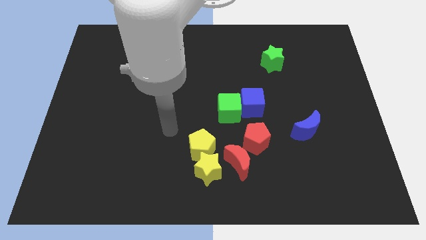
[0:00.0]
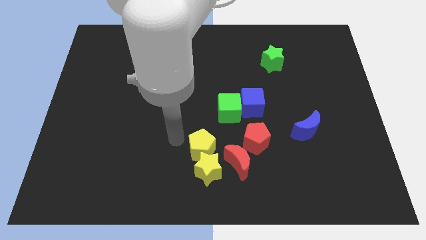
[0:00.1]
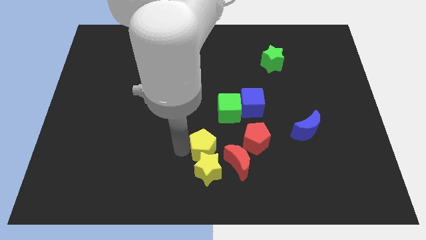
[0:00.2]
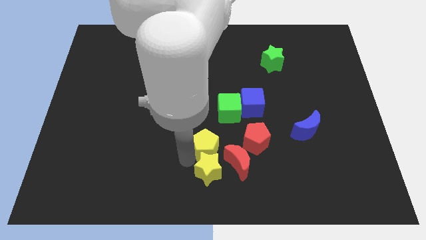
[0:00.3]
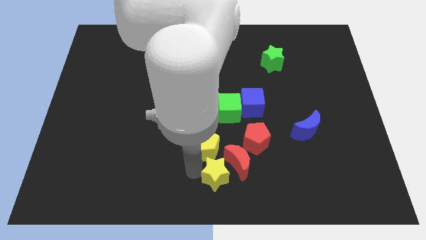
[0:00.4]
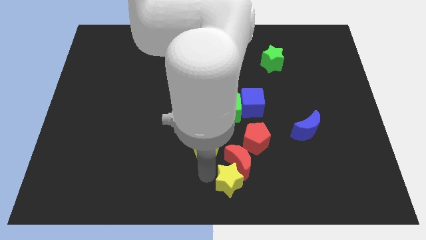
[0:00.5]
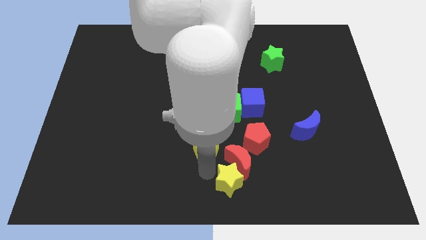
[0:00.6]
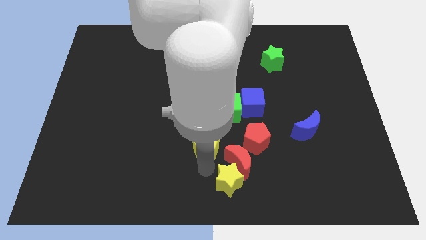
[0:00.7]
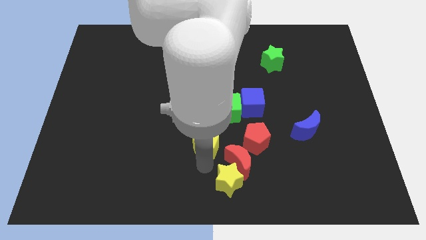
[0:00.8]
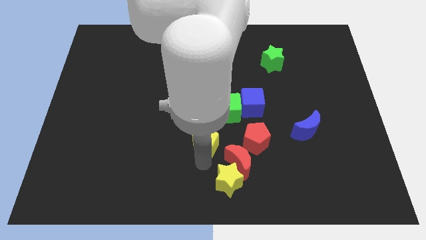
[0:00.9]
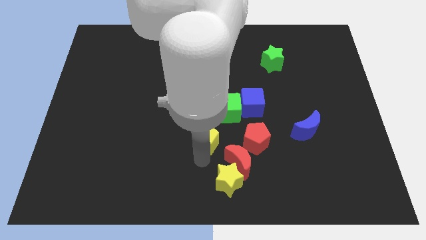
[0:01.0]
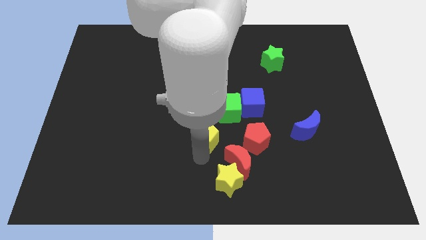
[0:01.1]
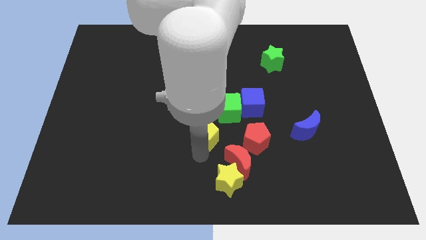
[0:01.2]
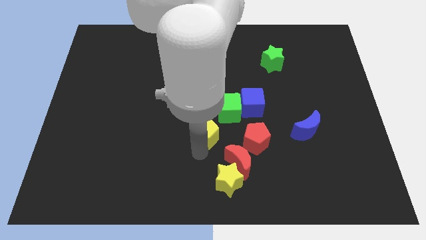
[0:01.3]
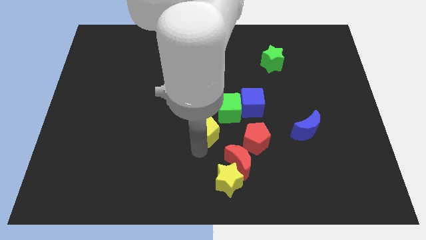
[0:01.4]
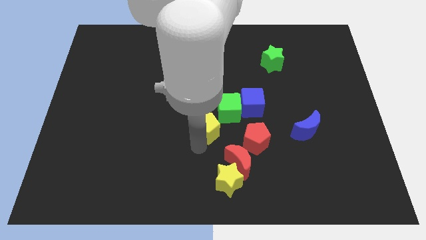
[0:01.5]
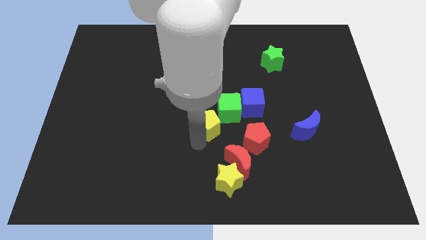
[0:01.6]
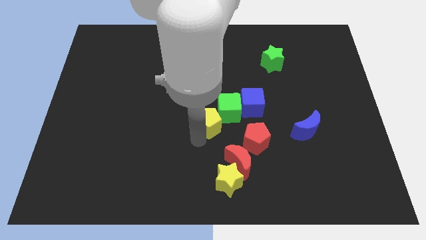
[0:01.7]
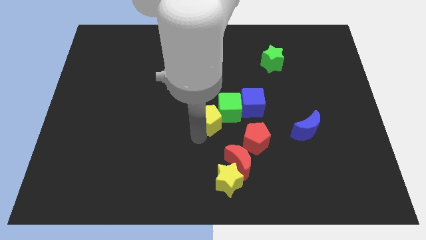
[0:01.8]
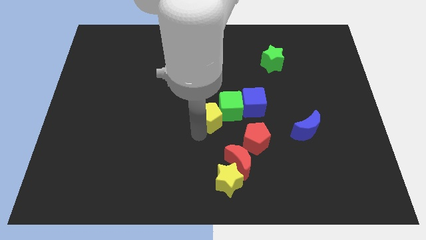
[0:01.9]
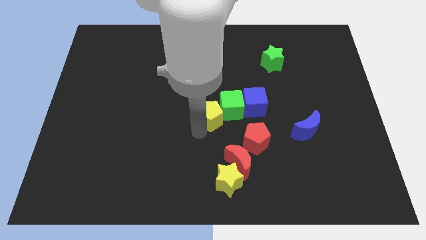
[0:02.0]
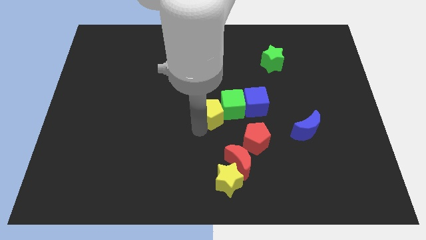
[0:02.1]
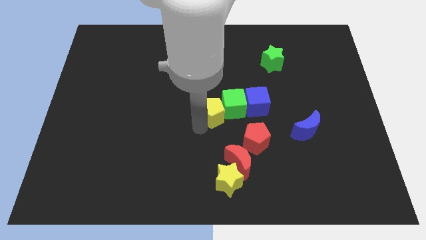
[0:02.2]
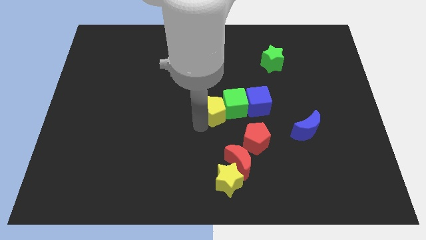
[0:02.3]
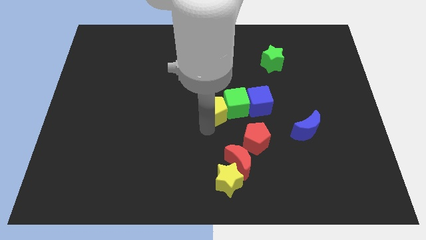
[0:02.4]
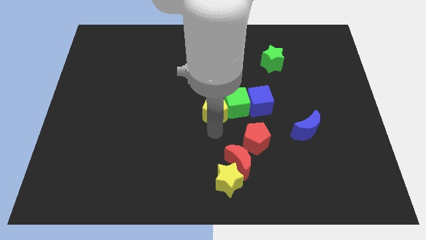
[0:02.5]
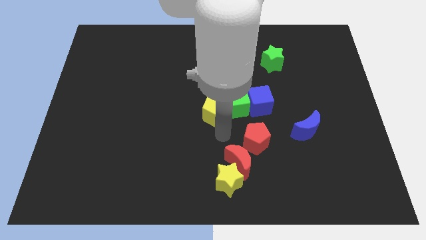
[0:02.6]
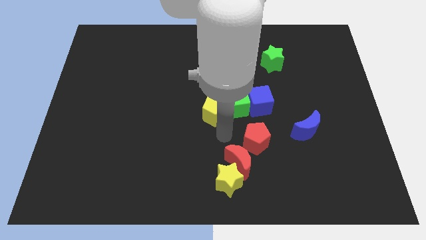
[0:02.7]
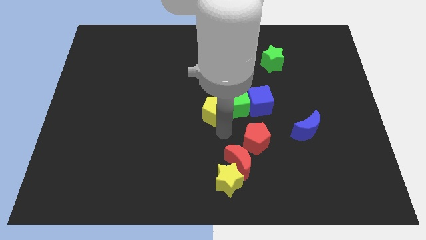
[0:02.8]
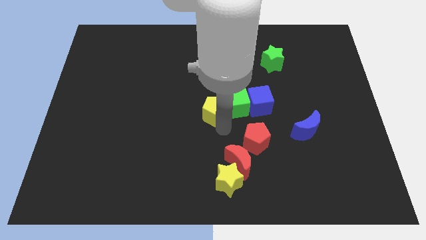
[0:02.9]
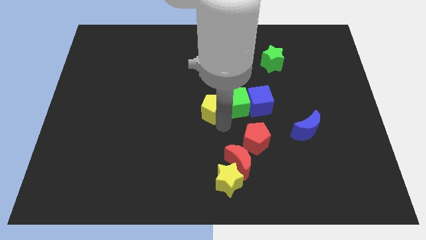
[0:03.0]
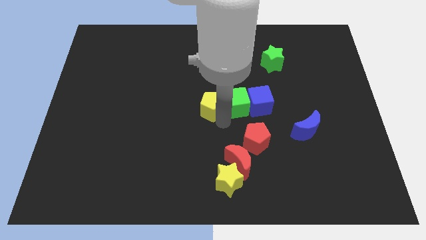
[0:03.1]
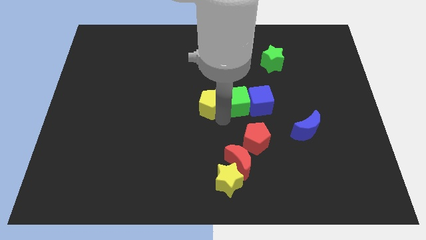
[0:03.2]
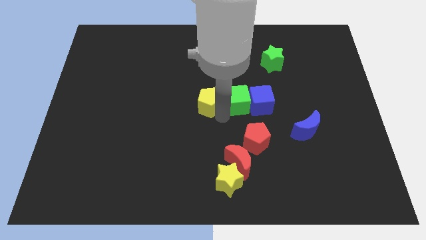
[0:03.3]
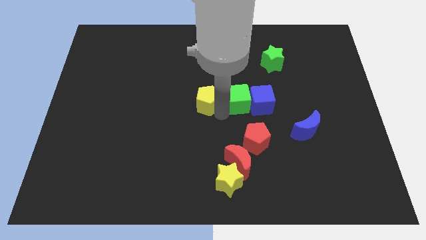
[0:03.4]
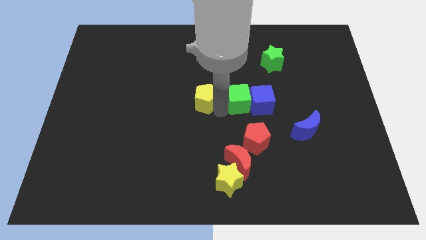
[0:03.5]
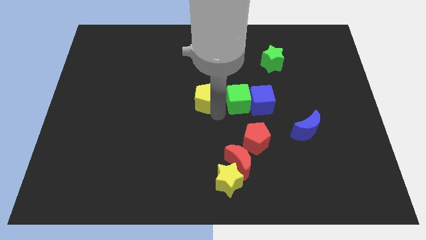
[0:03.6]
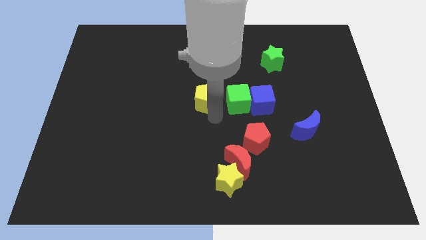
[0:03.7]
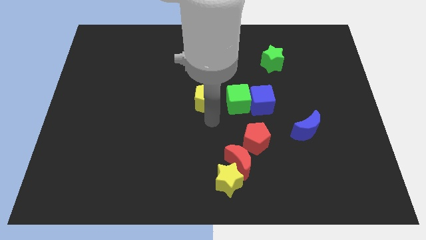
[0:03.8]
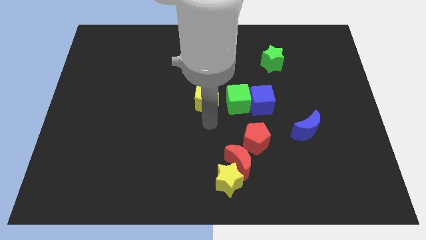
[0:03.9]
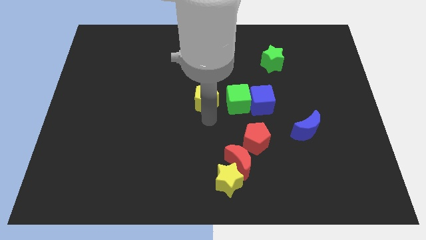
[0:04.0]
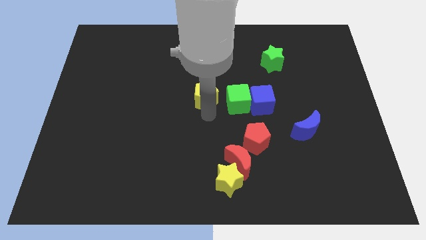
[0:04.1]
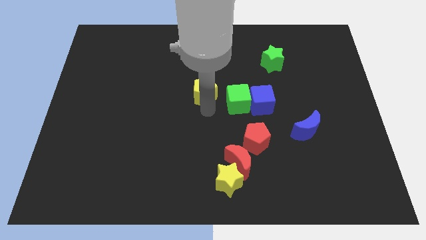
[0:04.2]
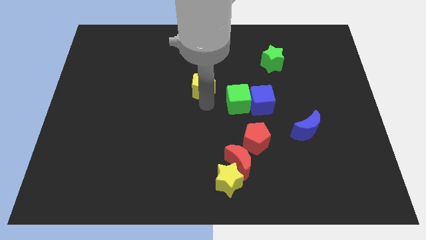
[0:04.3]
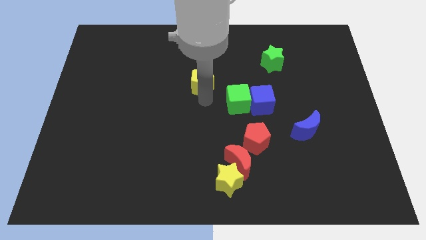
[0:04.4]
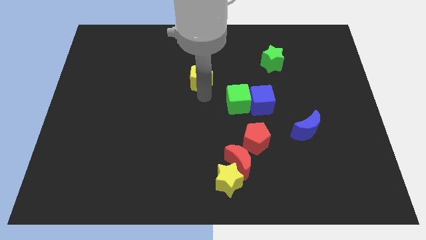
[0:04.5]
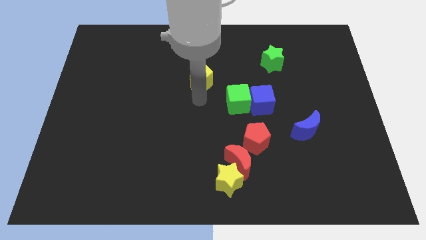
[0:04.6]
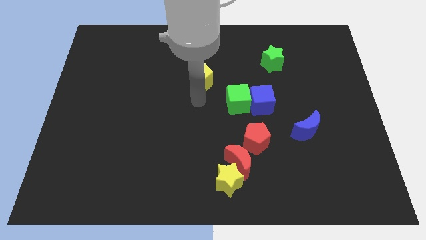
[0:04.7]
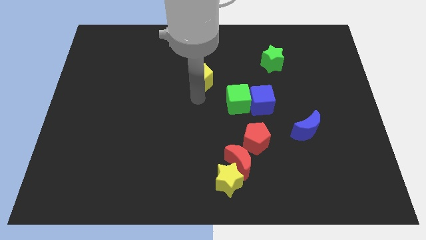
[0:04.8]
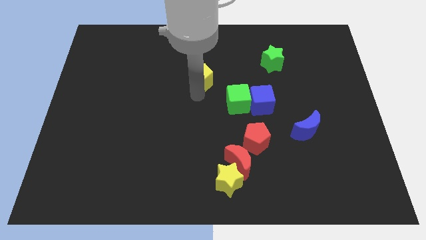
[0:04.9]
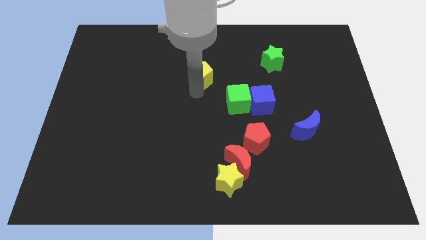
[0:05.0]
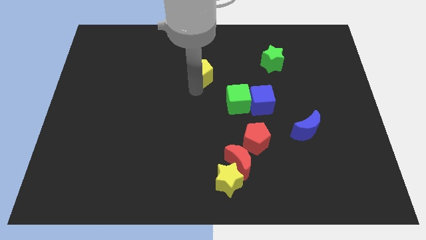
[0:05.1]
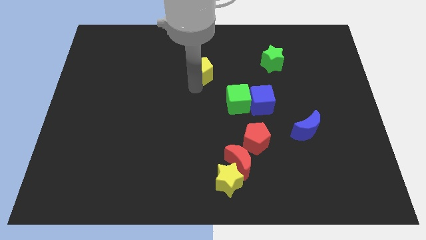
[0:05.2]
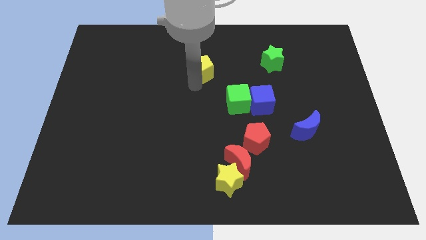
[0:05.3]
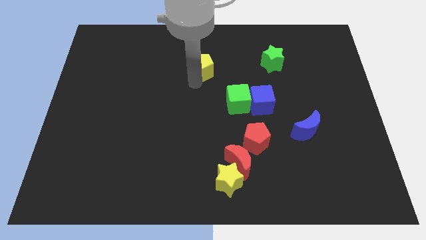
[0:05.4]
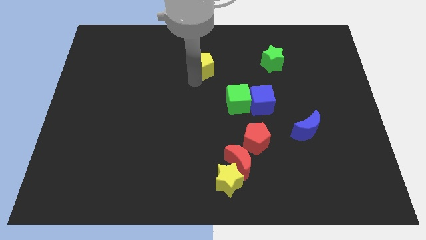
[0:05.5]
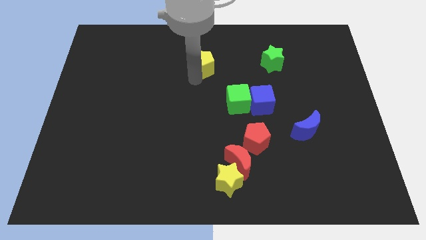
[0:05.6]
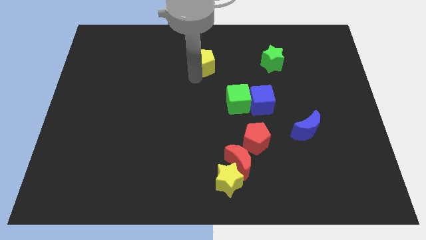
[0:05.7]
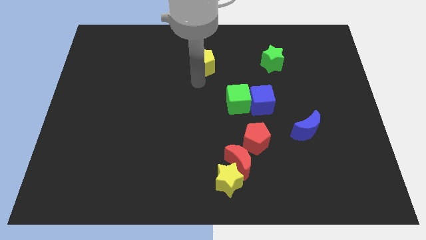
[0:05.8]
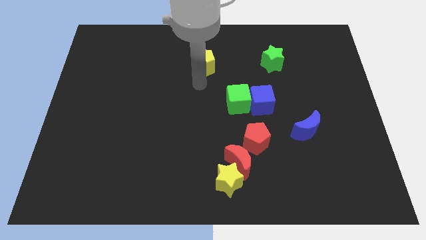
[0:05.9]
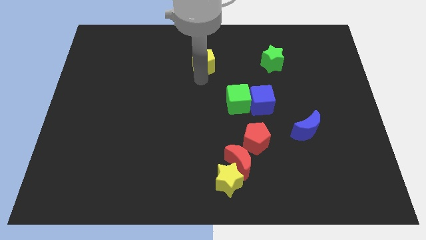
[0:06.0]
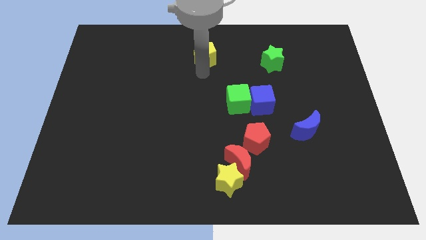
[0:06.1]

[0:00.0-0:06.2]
slide the yellow pentagon to the top side

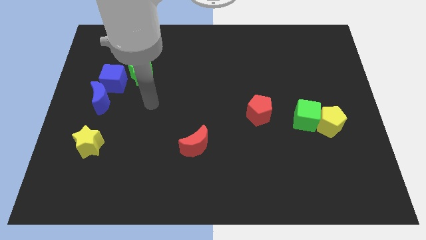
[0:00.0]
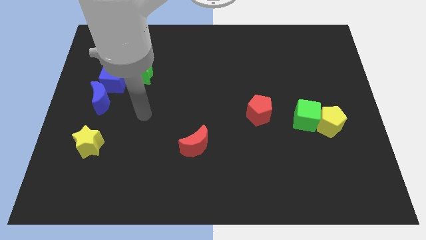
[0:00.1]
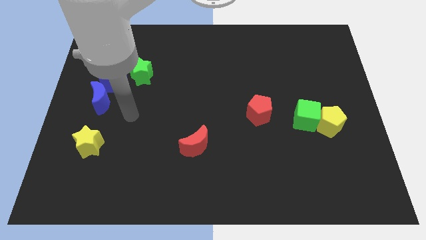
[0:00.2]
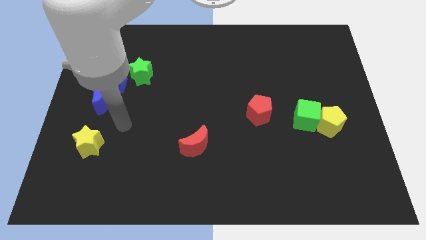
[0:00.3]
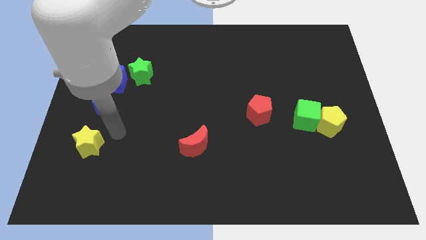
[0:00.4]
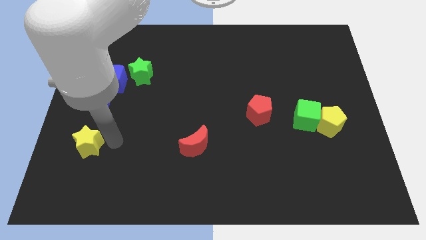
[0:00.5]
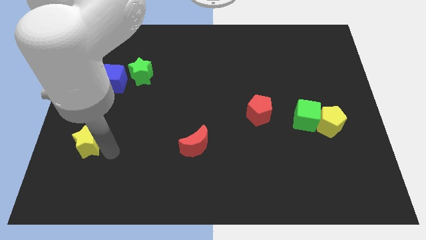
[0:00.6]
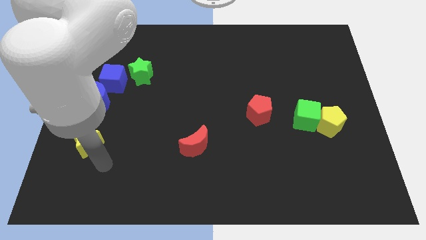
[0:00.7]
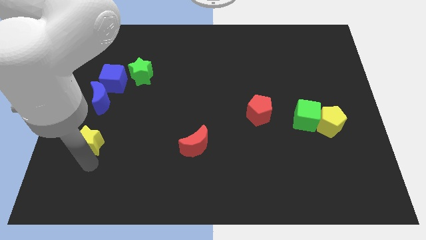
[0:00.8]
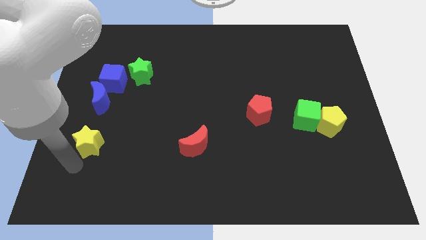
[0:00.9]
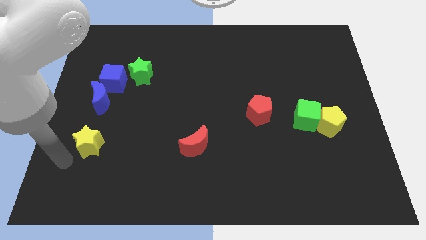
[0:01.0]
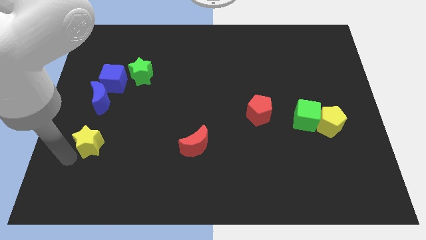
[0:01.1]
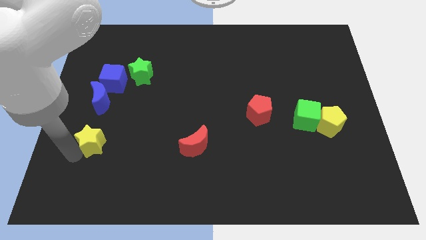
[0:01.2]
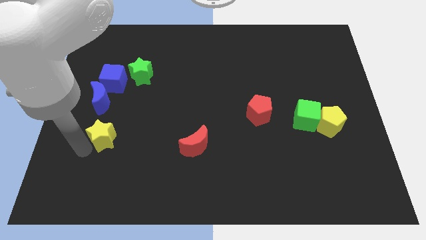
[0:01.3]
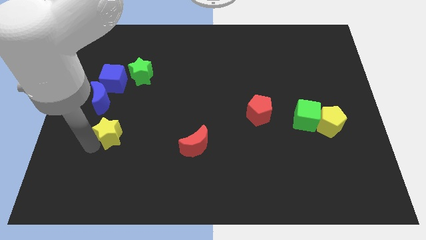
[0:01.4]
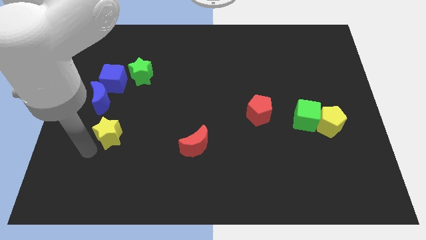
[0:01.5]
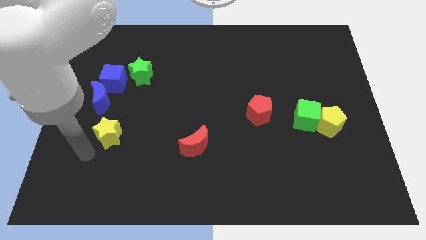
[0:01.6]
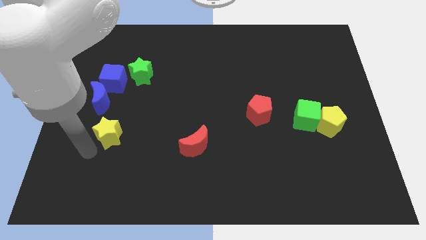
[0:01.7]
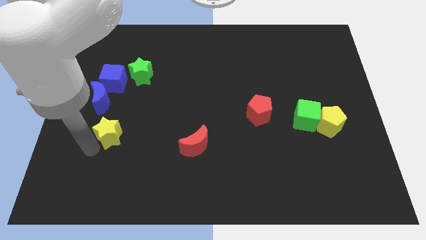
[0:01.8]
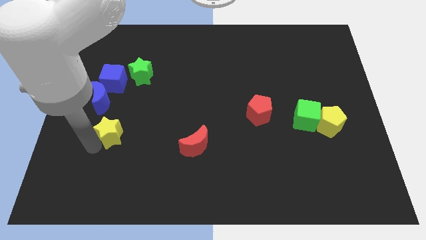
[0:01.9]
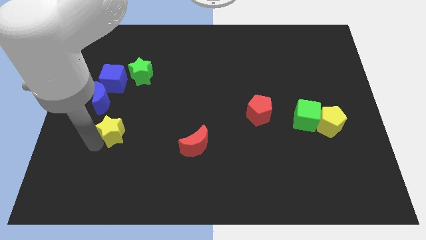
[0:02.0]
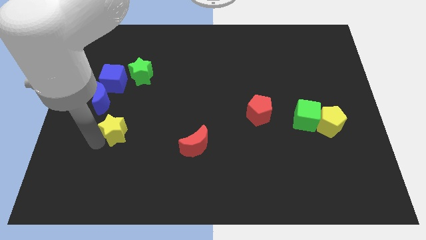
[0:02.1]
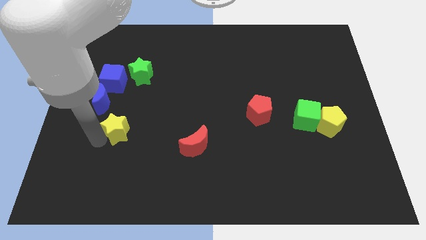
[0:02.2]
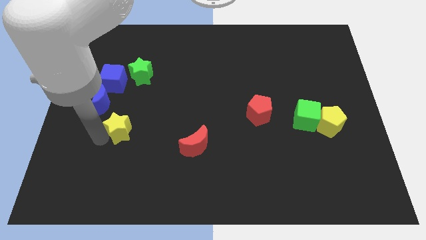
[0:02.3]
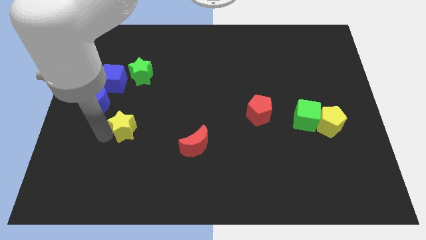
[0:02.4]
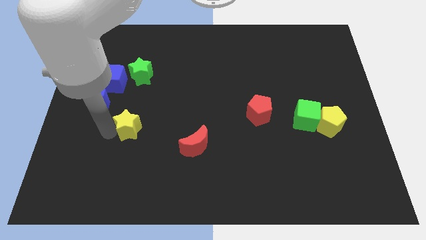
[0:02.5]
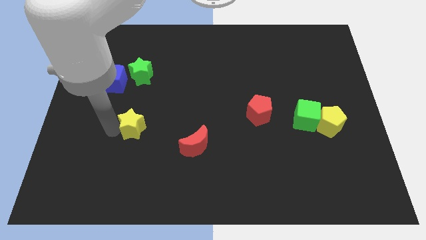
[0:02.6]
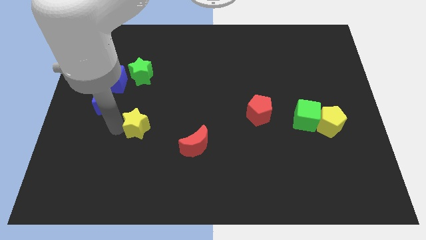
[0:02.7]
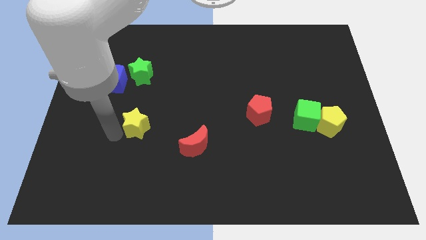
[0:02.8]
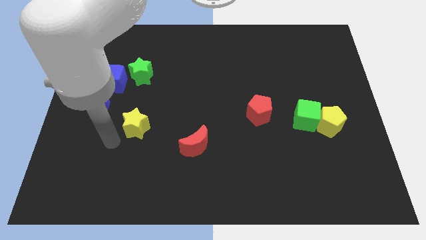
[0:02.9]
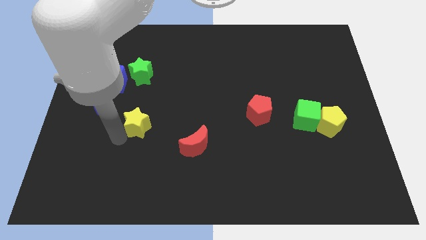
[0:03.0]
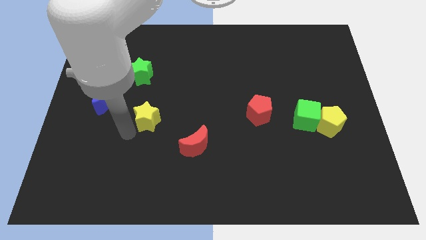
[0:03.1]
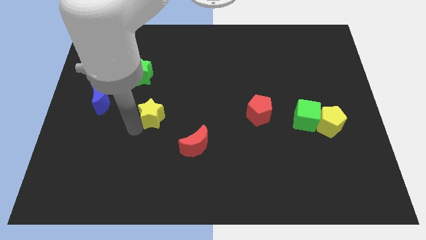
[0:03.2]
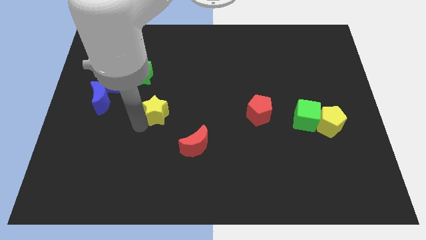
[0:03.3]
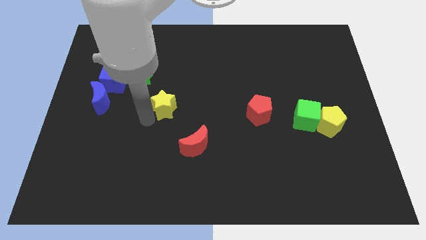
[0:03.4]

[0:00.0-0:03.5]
push the yellow star to the center of the board
